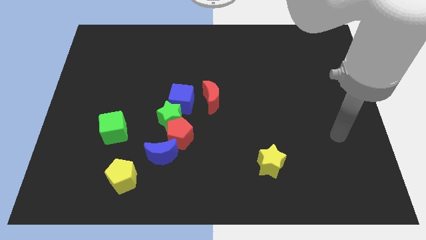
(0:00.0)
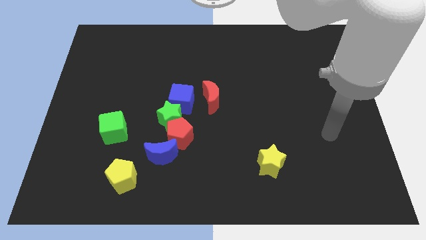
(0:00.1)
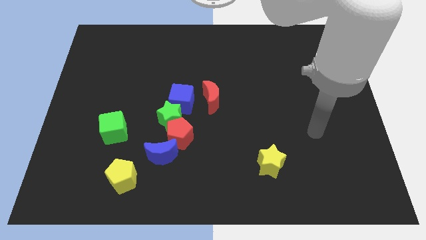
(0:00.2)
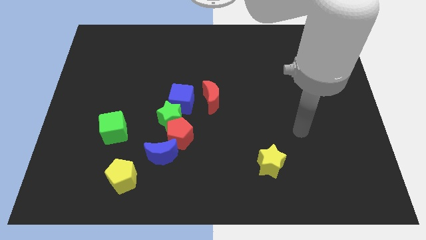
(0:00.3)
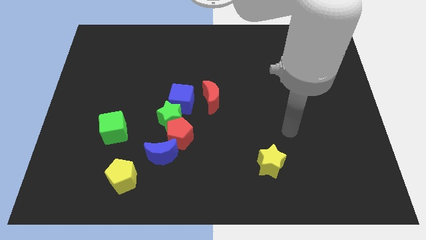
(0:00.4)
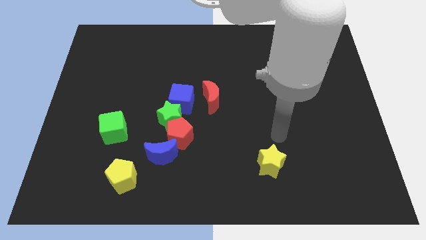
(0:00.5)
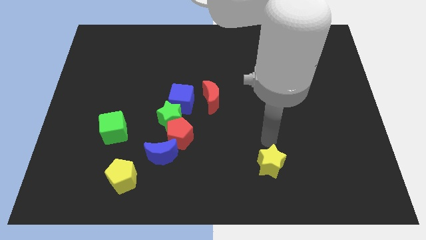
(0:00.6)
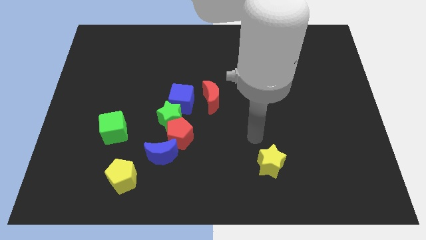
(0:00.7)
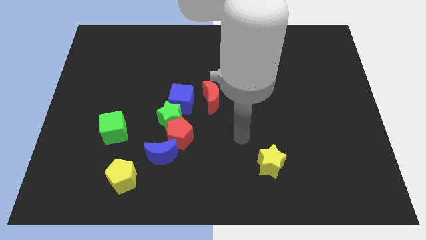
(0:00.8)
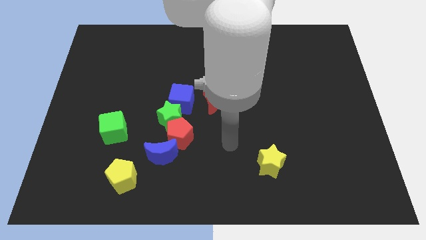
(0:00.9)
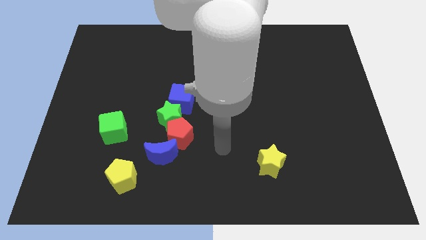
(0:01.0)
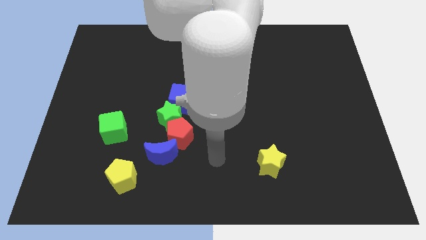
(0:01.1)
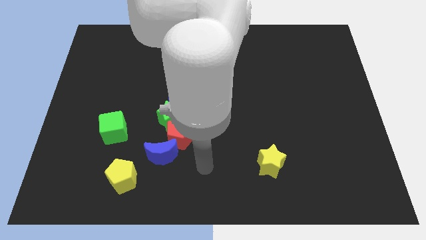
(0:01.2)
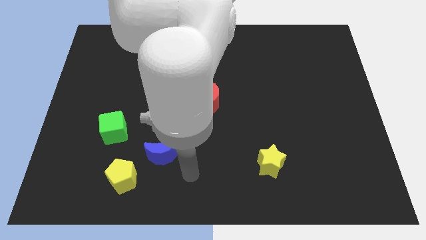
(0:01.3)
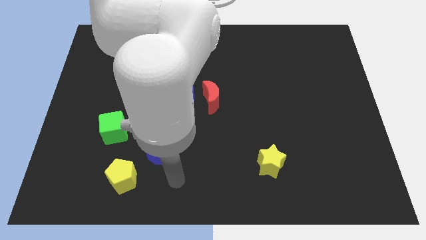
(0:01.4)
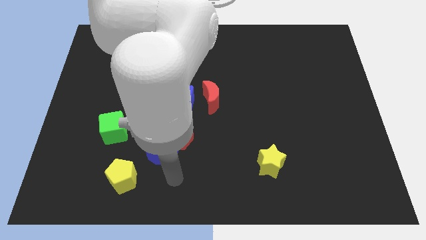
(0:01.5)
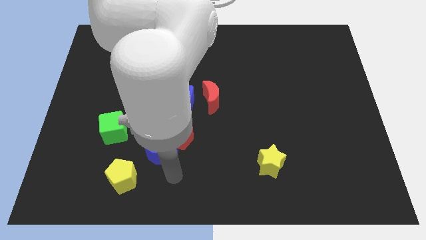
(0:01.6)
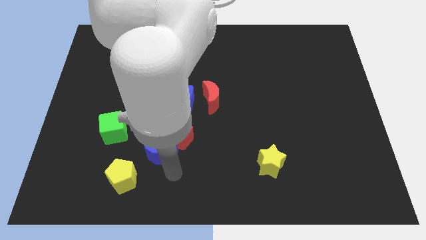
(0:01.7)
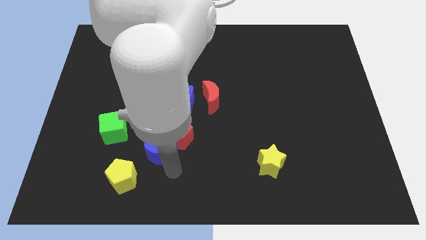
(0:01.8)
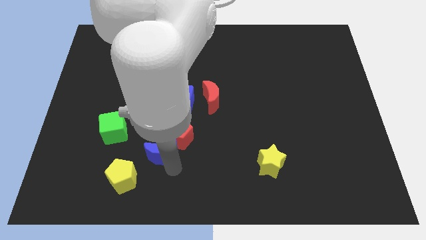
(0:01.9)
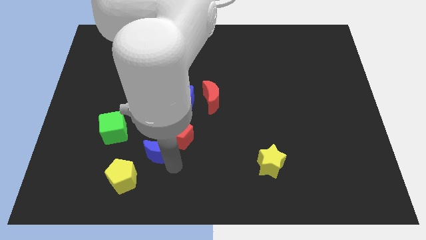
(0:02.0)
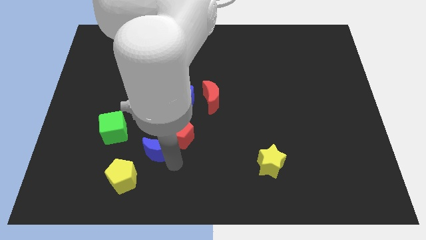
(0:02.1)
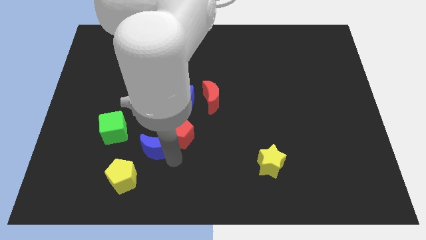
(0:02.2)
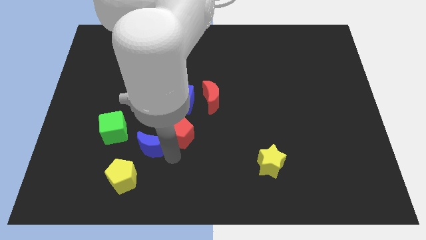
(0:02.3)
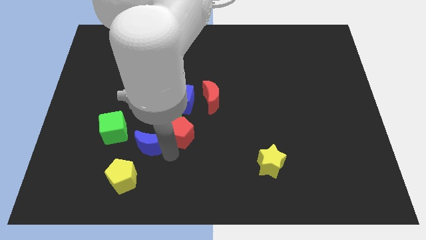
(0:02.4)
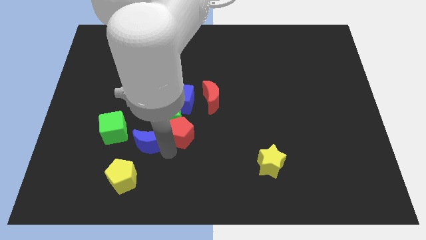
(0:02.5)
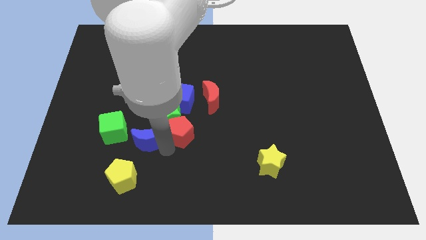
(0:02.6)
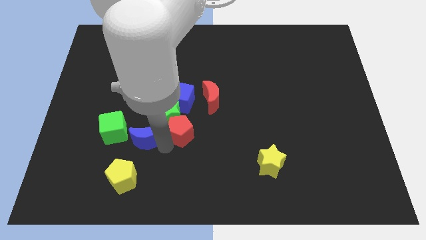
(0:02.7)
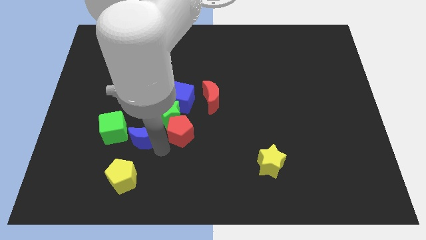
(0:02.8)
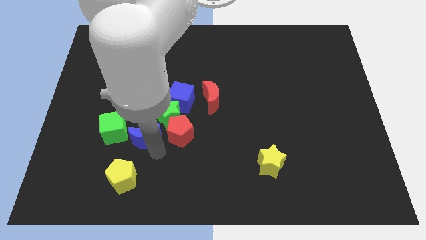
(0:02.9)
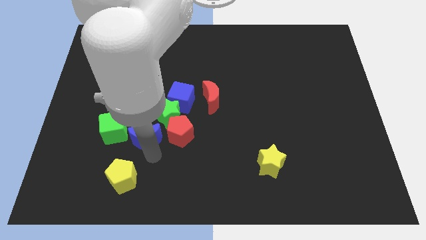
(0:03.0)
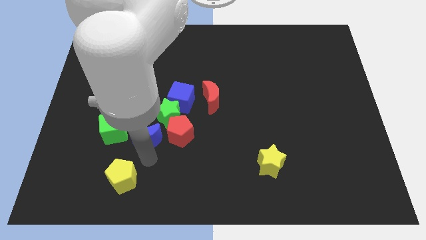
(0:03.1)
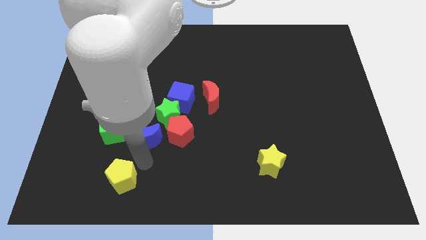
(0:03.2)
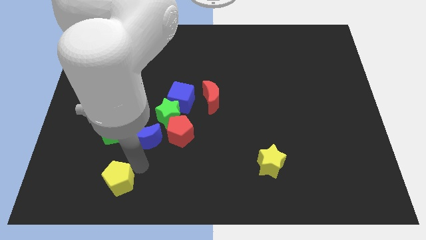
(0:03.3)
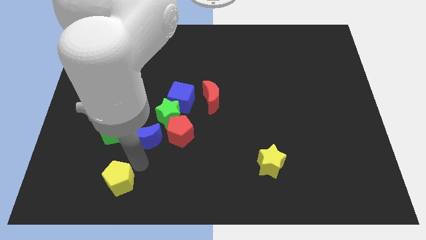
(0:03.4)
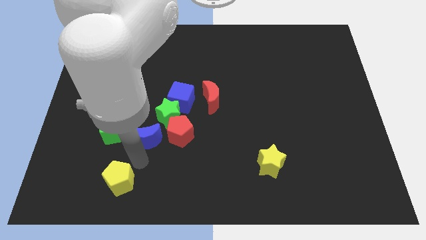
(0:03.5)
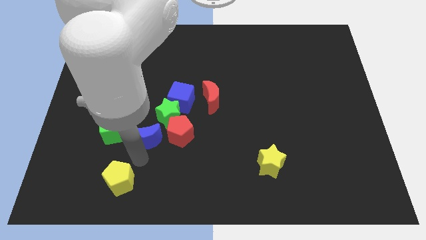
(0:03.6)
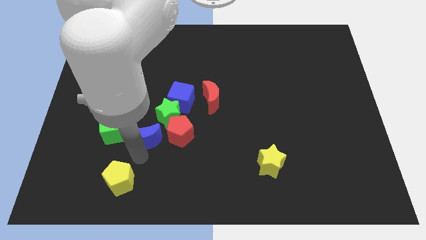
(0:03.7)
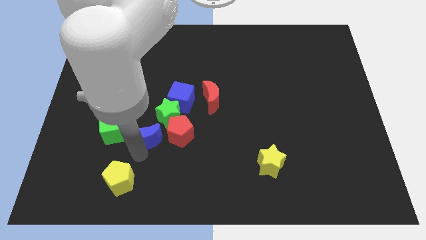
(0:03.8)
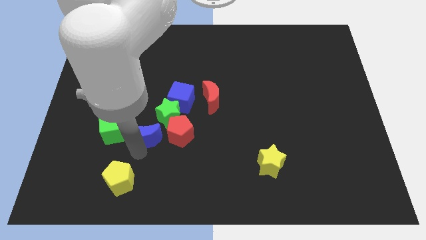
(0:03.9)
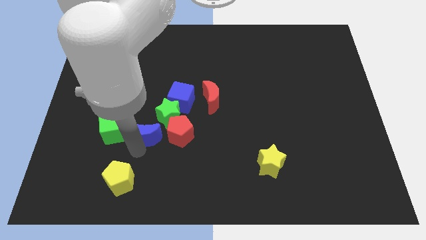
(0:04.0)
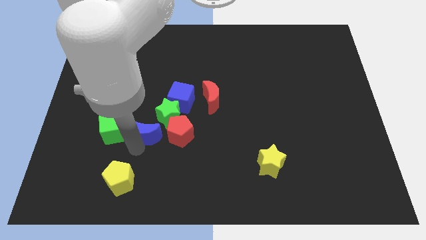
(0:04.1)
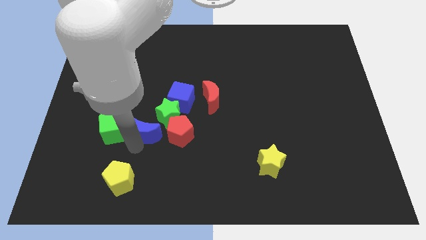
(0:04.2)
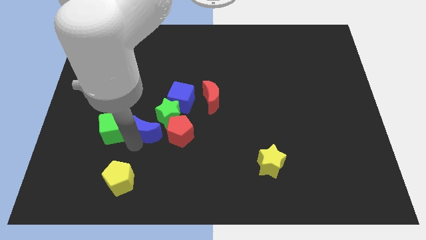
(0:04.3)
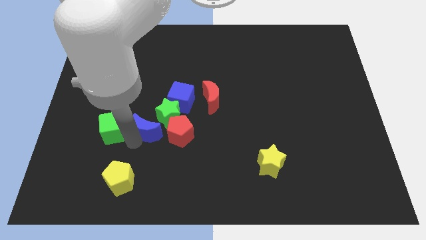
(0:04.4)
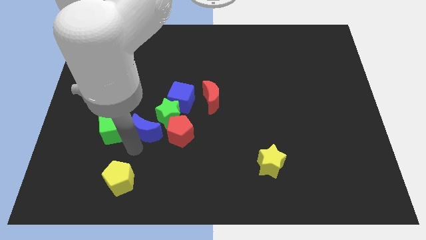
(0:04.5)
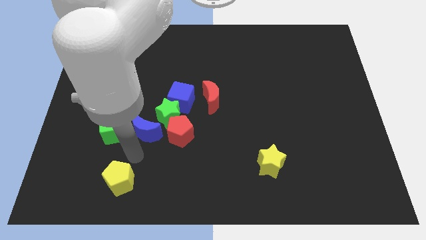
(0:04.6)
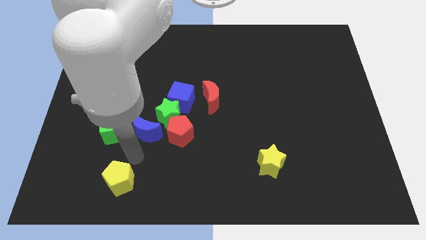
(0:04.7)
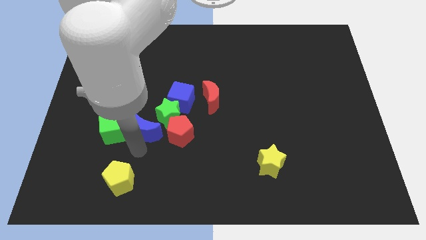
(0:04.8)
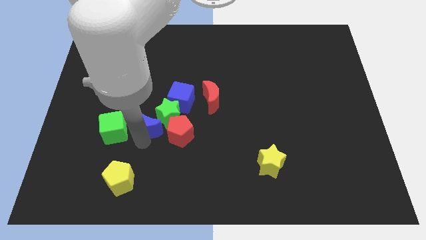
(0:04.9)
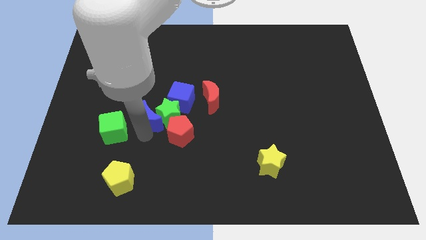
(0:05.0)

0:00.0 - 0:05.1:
push the blue moon up a little

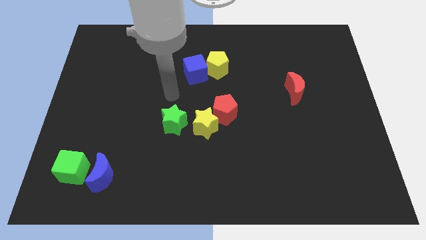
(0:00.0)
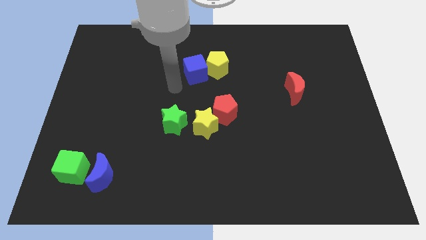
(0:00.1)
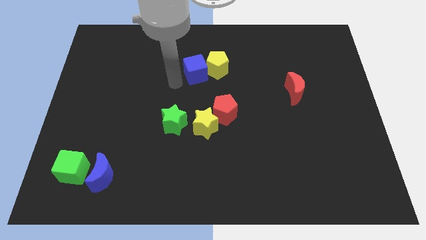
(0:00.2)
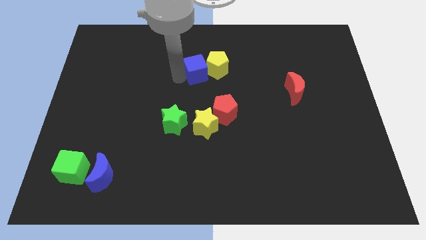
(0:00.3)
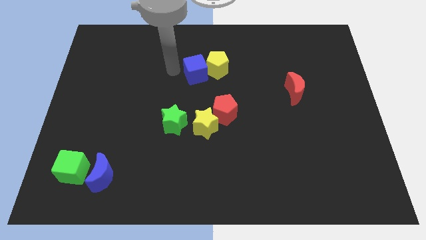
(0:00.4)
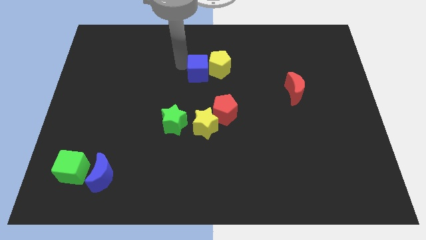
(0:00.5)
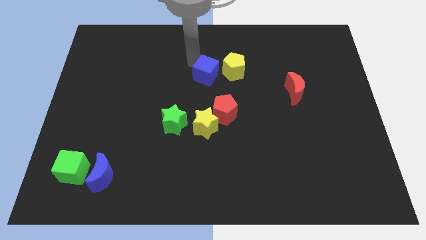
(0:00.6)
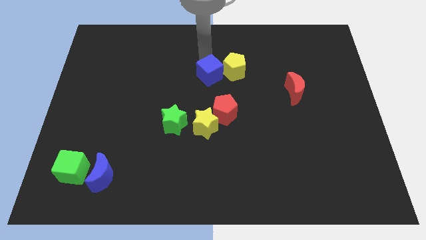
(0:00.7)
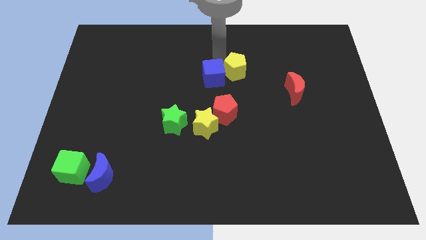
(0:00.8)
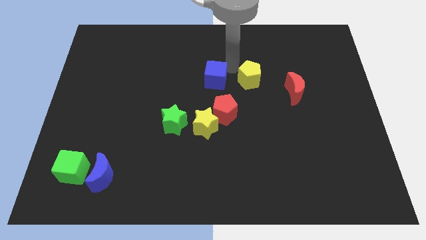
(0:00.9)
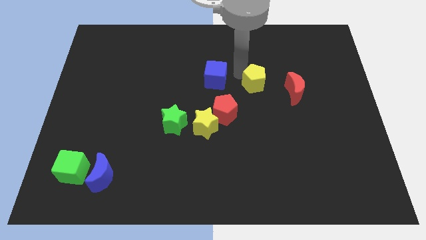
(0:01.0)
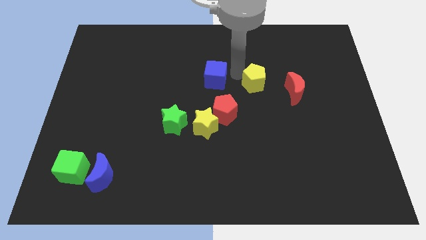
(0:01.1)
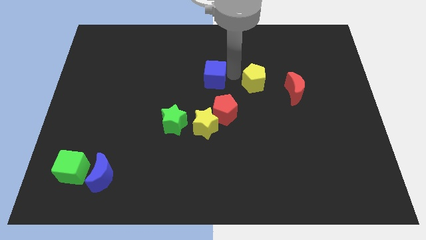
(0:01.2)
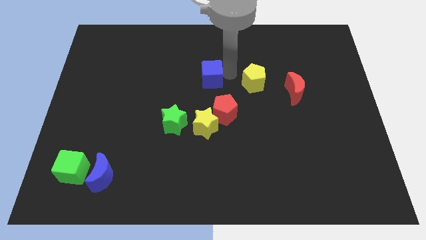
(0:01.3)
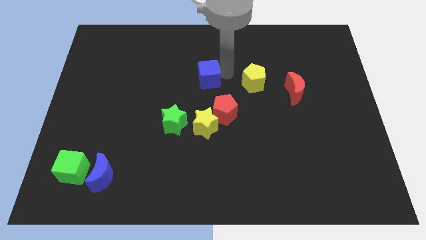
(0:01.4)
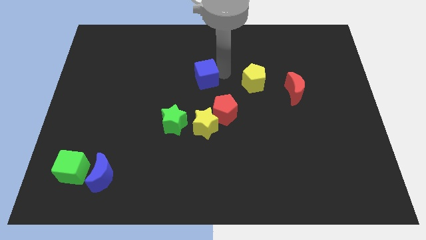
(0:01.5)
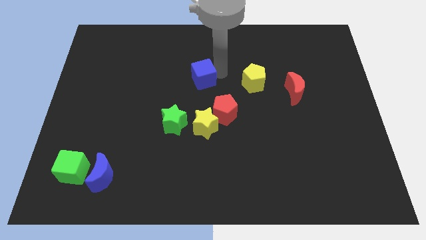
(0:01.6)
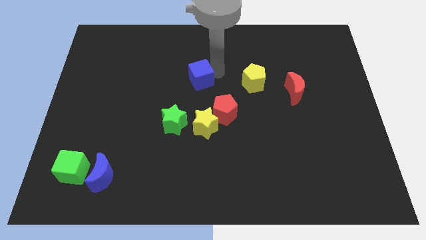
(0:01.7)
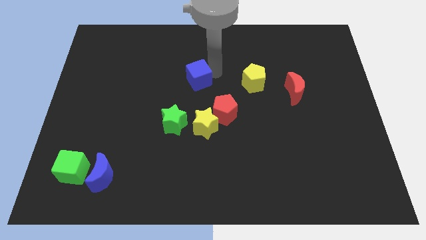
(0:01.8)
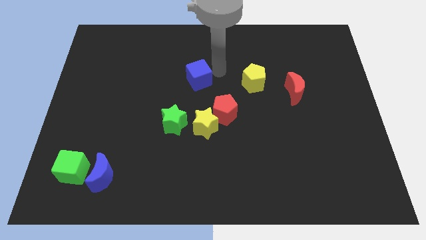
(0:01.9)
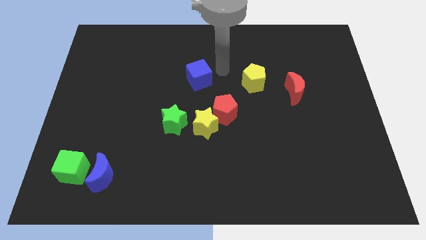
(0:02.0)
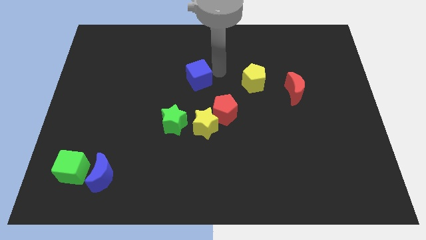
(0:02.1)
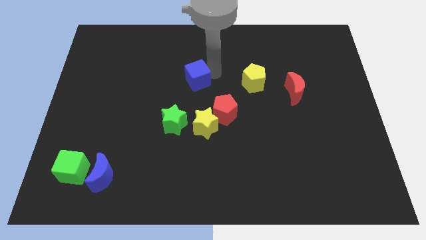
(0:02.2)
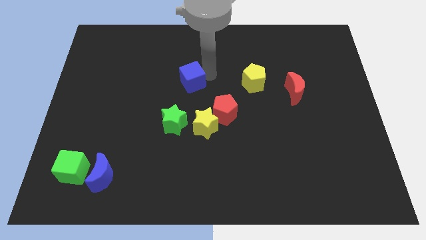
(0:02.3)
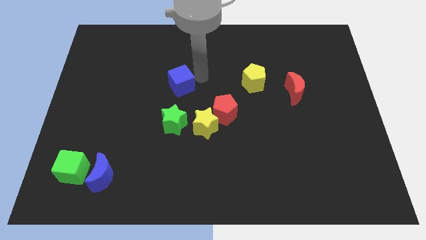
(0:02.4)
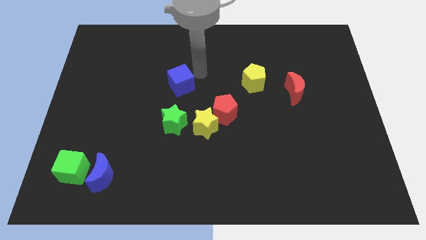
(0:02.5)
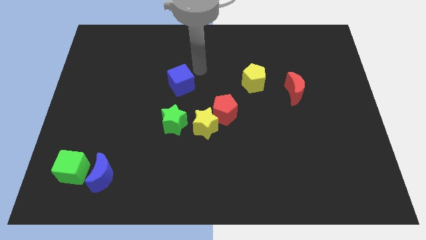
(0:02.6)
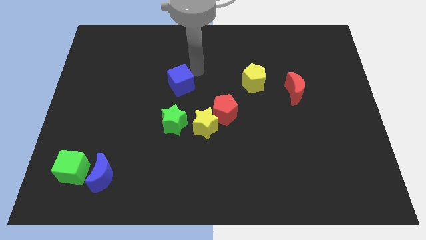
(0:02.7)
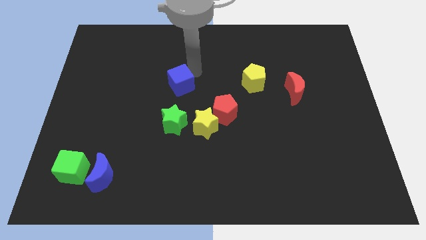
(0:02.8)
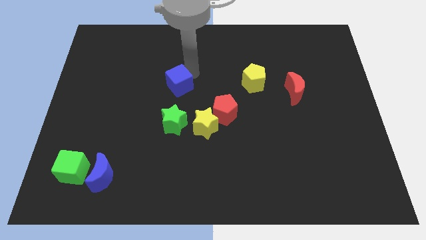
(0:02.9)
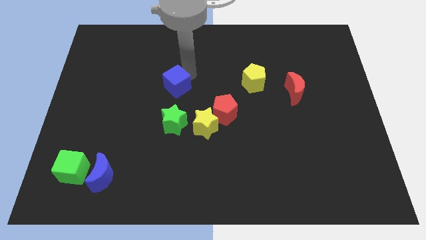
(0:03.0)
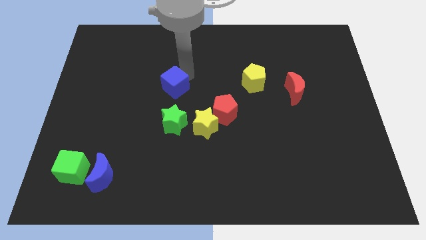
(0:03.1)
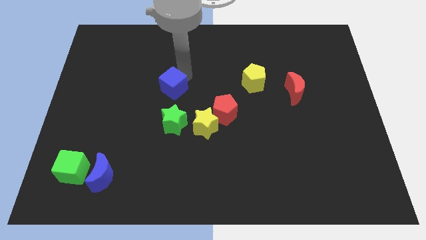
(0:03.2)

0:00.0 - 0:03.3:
slide the blue cube downwards and left somewhat

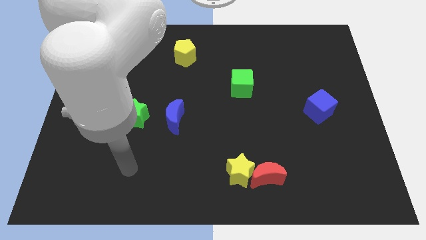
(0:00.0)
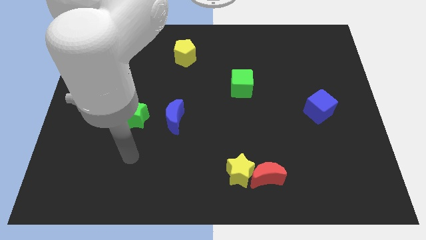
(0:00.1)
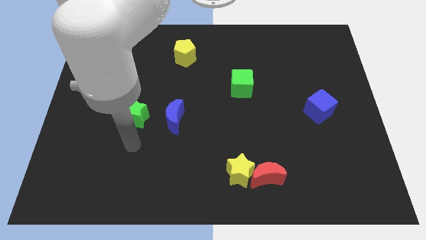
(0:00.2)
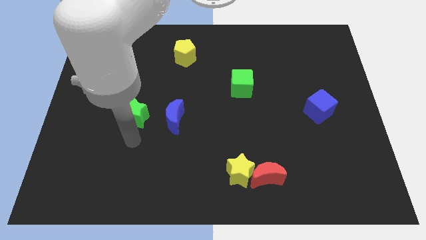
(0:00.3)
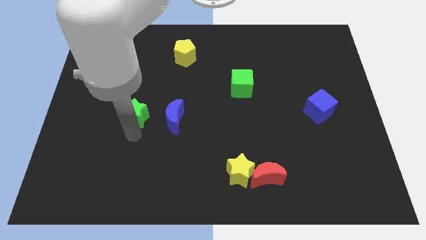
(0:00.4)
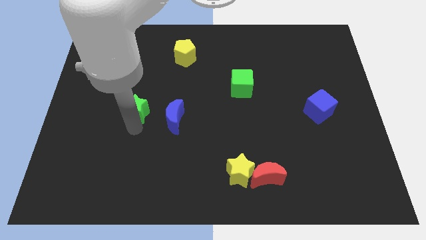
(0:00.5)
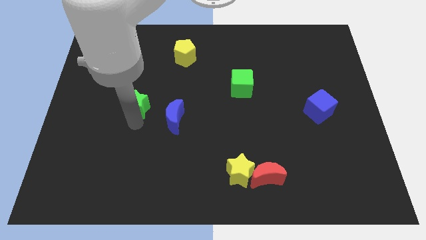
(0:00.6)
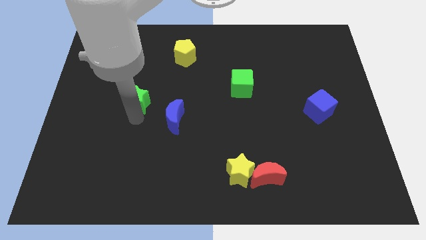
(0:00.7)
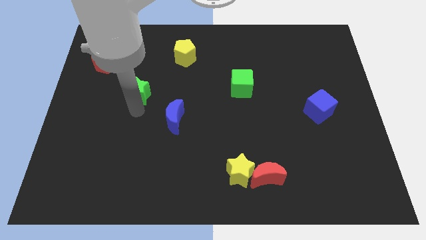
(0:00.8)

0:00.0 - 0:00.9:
slide the green star slightly upwards
